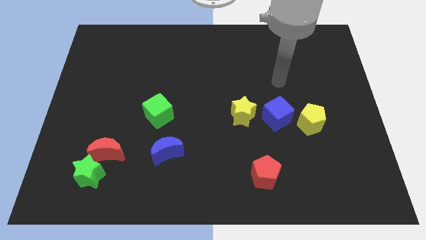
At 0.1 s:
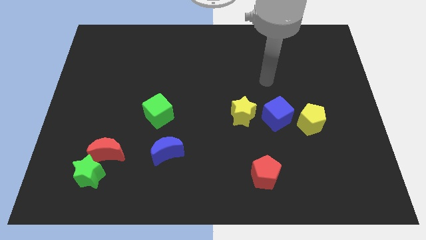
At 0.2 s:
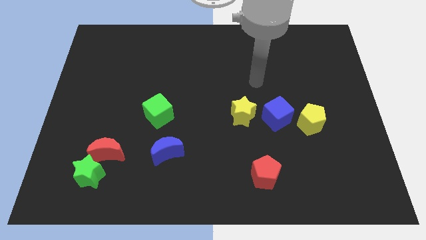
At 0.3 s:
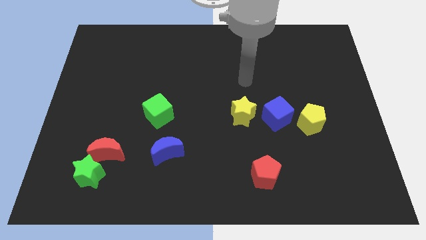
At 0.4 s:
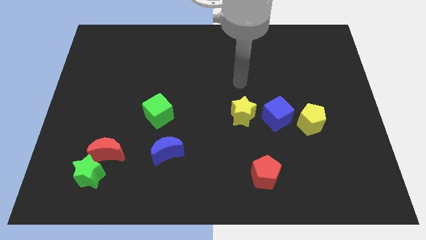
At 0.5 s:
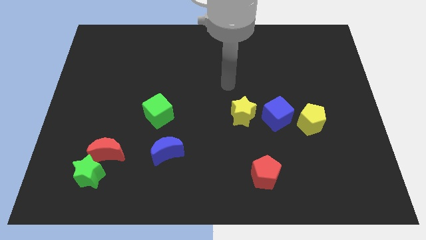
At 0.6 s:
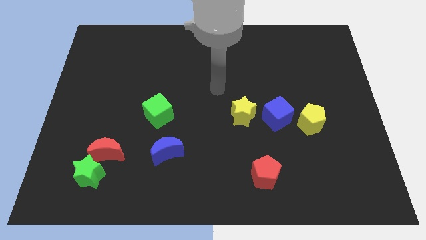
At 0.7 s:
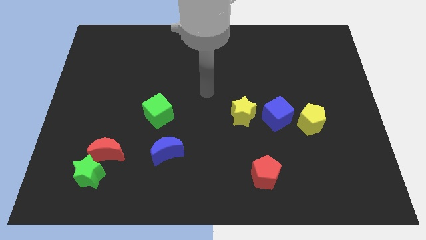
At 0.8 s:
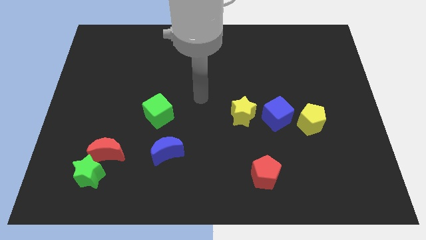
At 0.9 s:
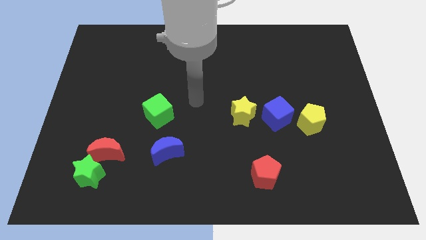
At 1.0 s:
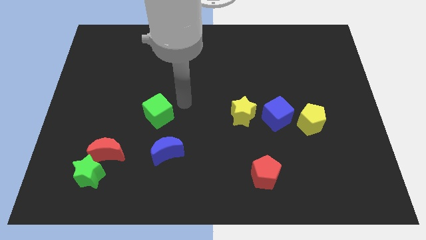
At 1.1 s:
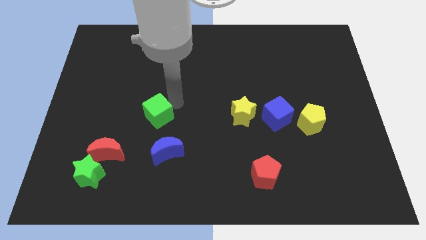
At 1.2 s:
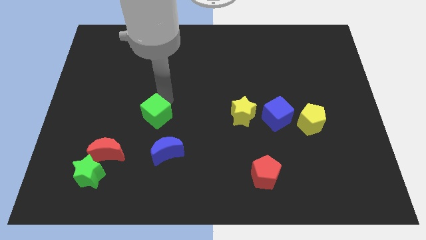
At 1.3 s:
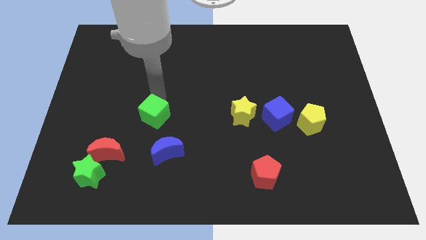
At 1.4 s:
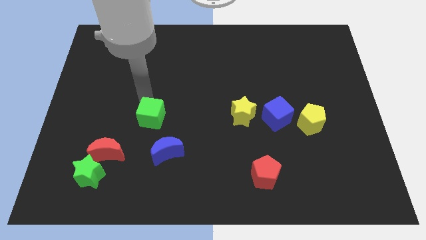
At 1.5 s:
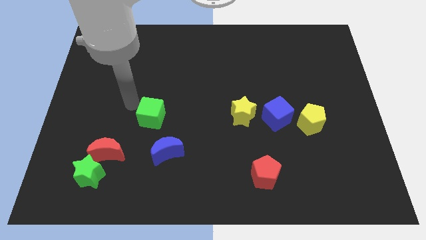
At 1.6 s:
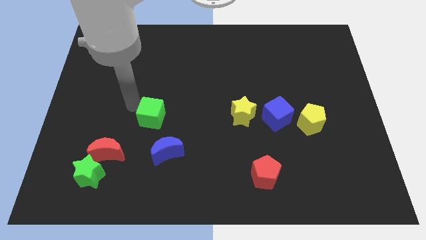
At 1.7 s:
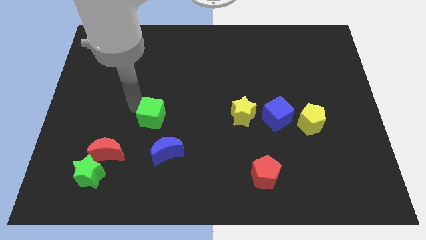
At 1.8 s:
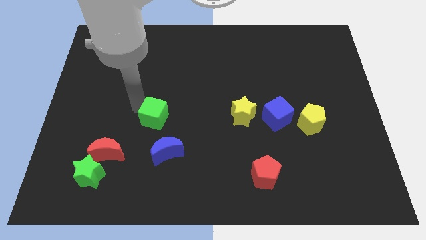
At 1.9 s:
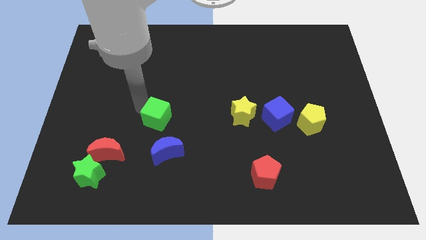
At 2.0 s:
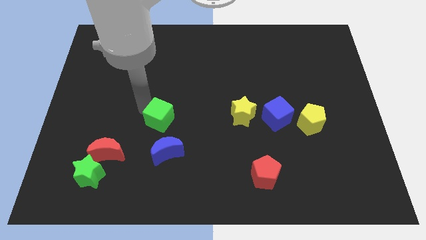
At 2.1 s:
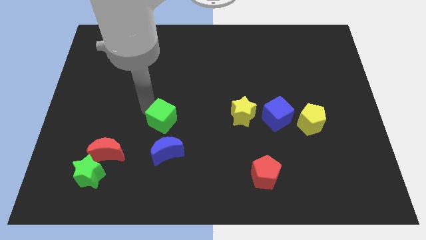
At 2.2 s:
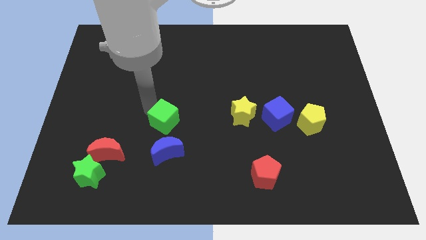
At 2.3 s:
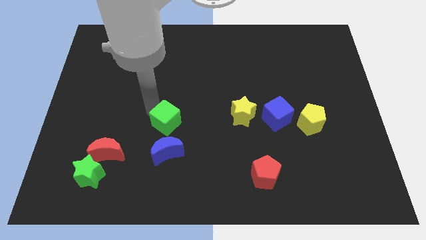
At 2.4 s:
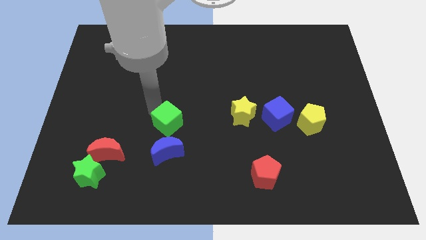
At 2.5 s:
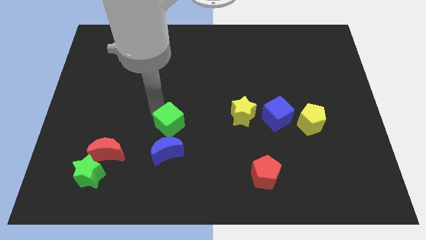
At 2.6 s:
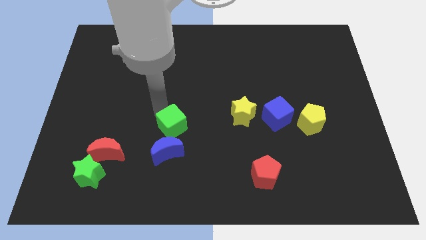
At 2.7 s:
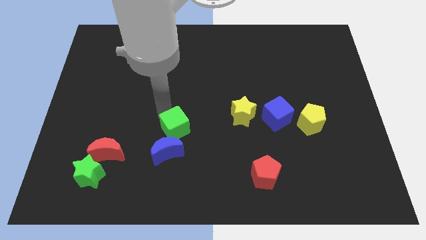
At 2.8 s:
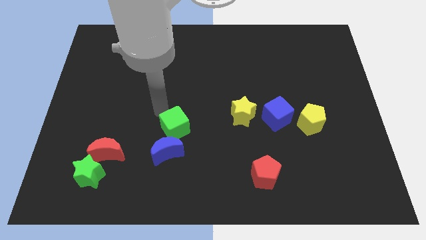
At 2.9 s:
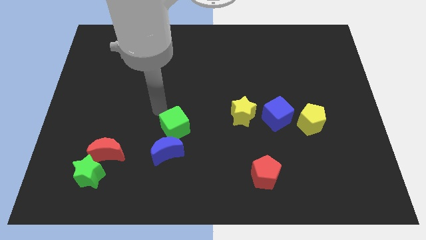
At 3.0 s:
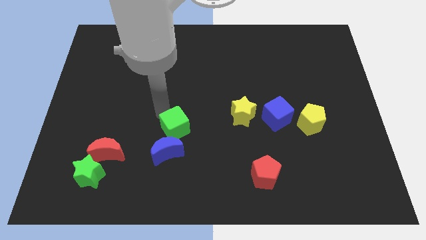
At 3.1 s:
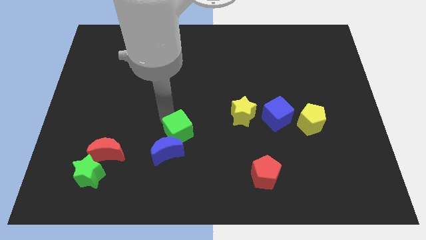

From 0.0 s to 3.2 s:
slightly move the green cube diagonally down and right

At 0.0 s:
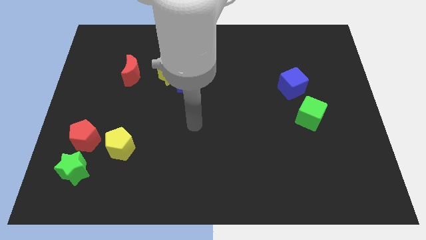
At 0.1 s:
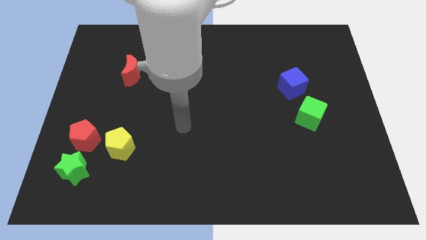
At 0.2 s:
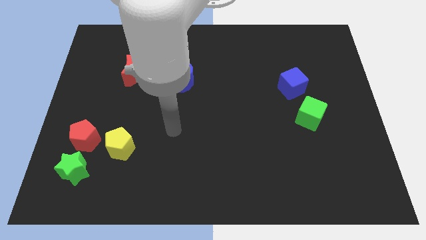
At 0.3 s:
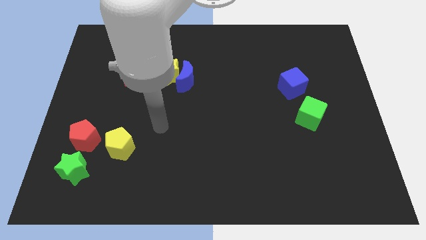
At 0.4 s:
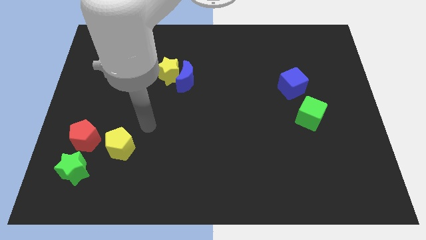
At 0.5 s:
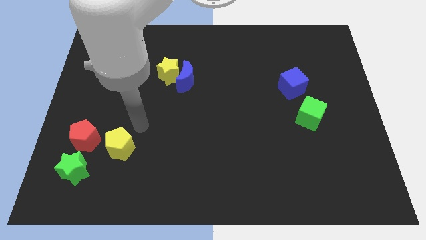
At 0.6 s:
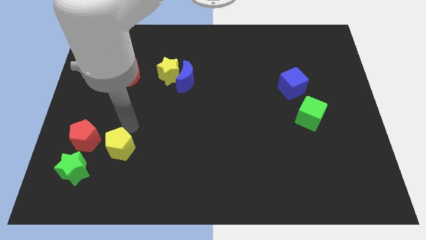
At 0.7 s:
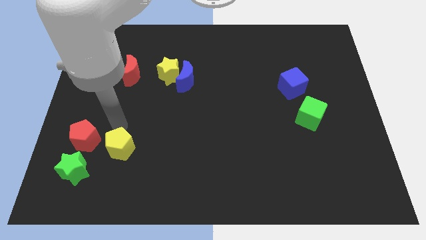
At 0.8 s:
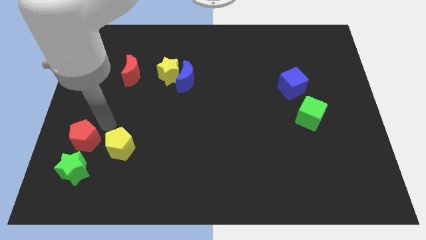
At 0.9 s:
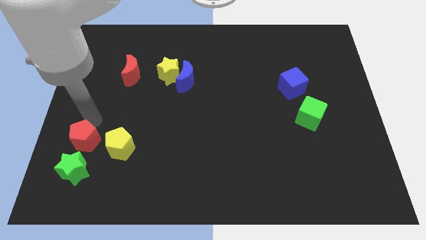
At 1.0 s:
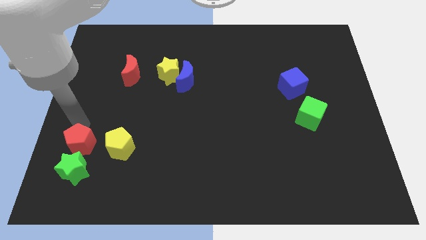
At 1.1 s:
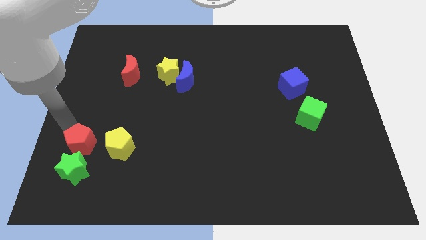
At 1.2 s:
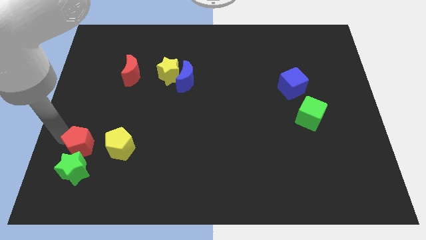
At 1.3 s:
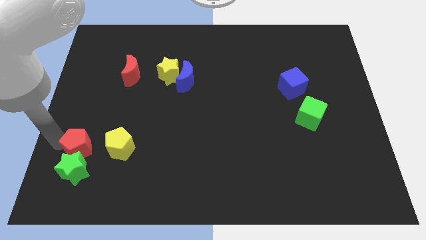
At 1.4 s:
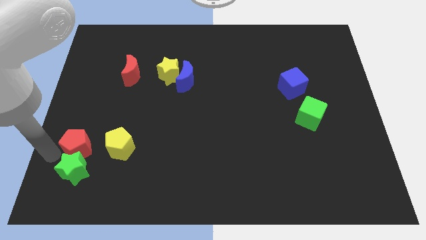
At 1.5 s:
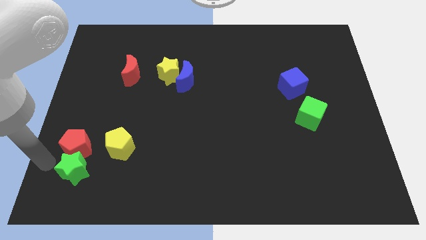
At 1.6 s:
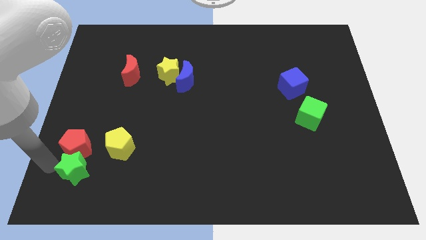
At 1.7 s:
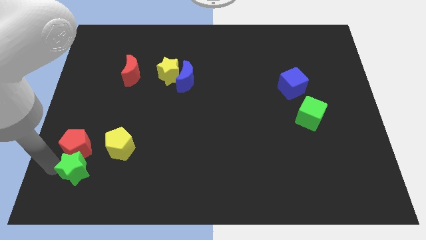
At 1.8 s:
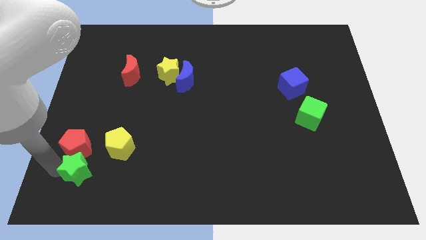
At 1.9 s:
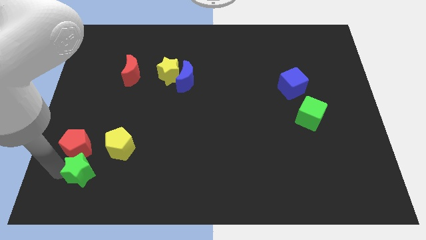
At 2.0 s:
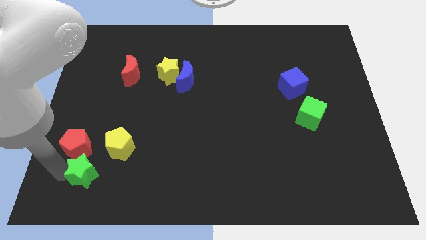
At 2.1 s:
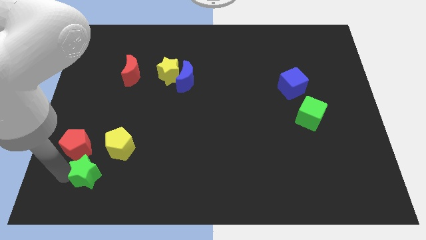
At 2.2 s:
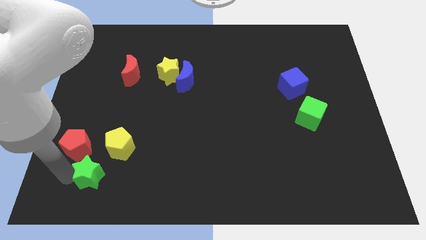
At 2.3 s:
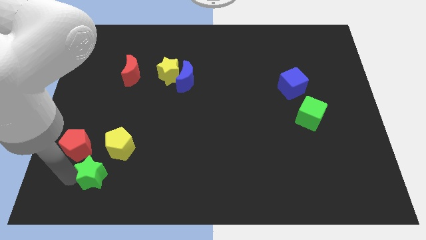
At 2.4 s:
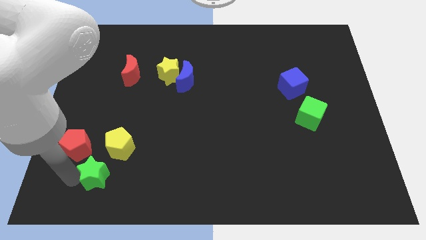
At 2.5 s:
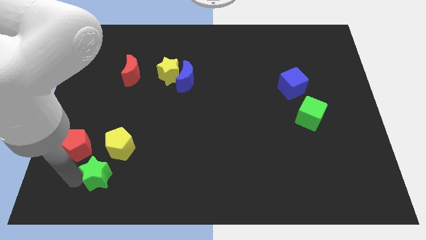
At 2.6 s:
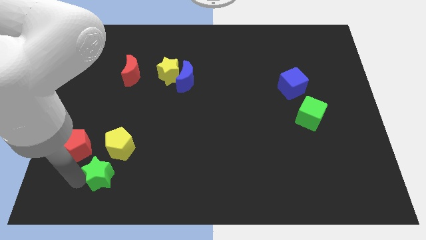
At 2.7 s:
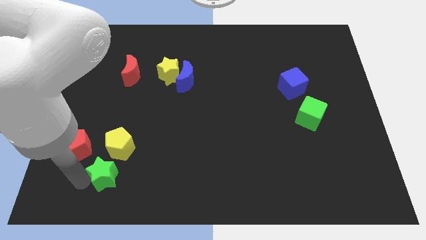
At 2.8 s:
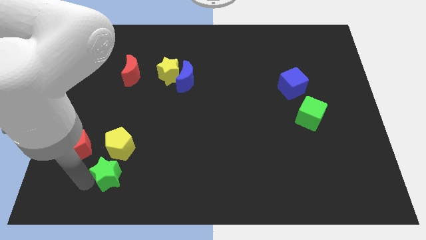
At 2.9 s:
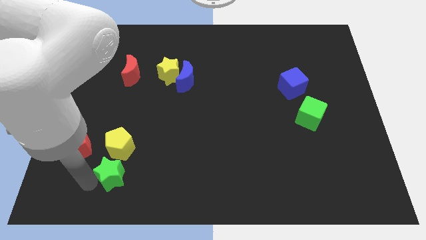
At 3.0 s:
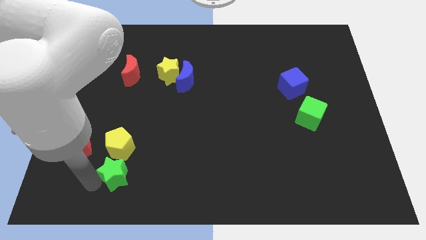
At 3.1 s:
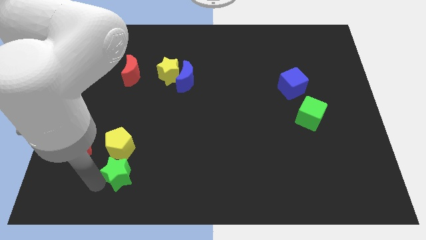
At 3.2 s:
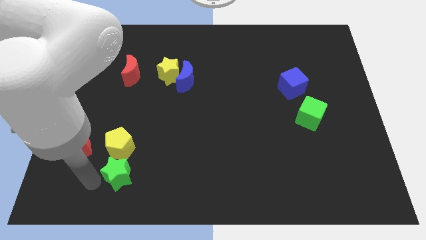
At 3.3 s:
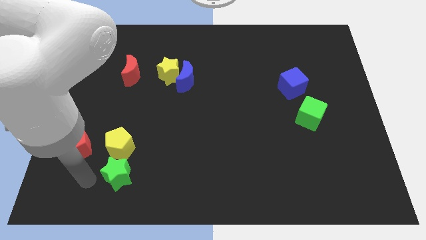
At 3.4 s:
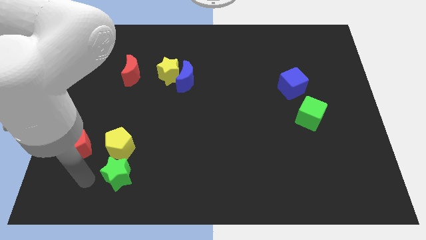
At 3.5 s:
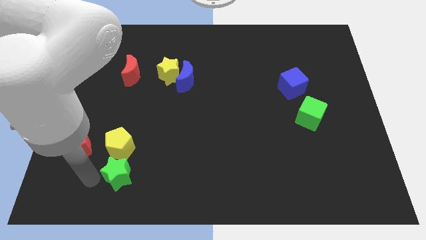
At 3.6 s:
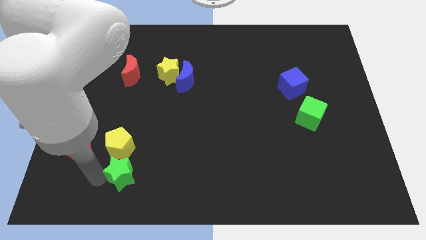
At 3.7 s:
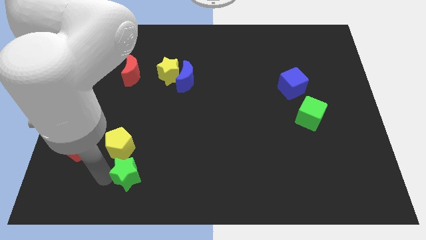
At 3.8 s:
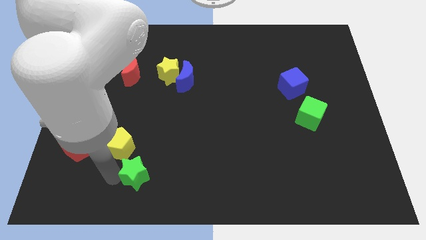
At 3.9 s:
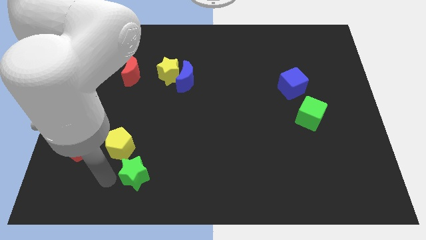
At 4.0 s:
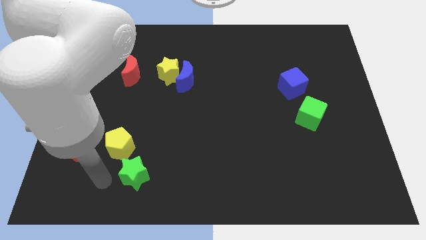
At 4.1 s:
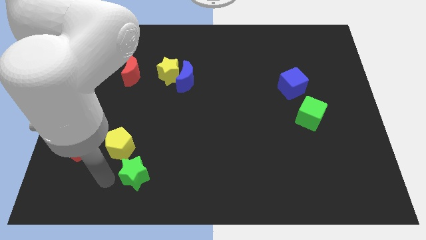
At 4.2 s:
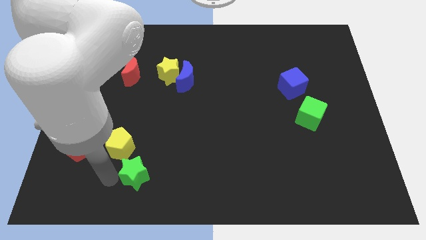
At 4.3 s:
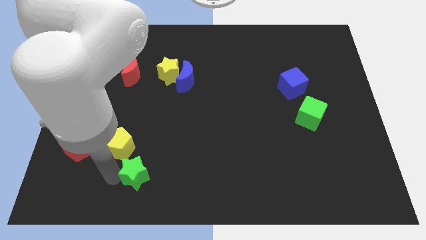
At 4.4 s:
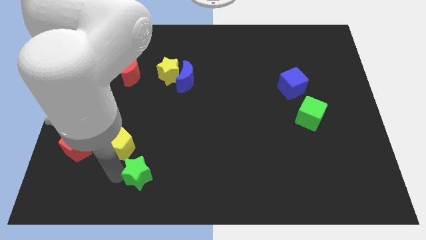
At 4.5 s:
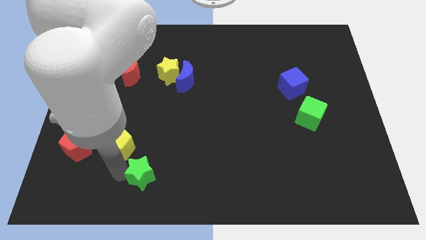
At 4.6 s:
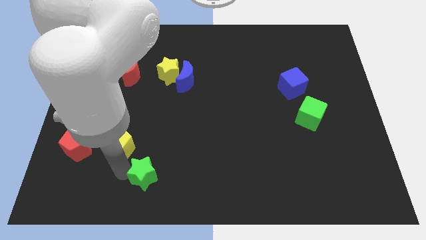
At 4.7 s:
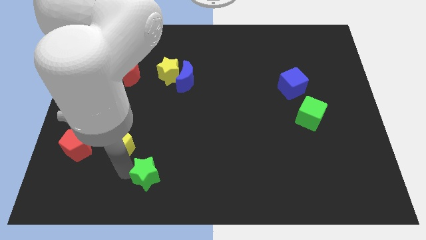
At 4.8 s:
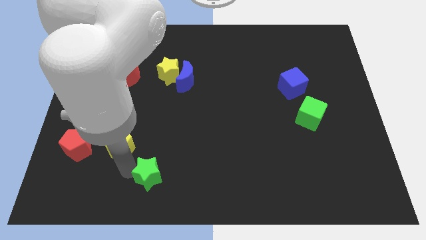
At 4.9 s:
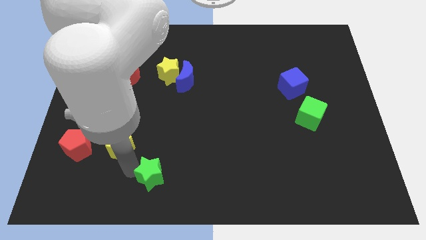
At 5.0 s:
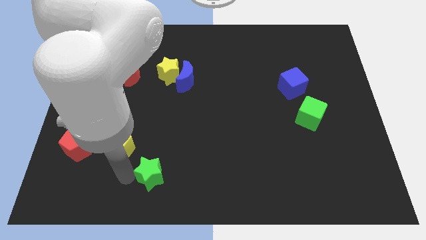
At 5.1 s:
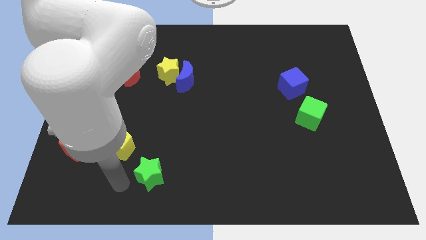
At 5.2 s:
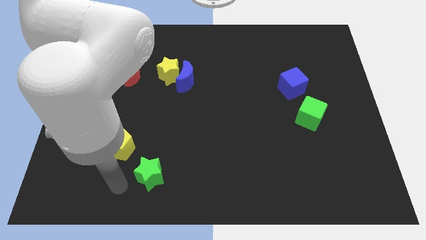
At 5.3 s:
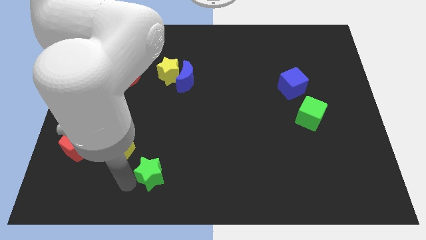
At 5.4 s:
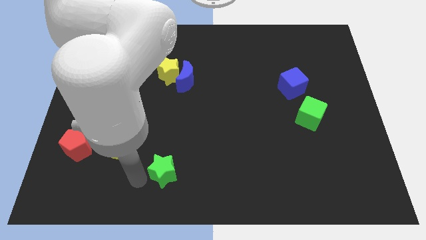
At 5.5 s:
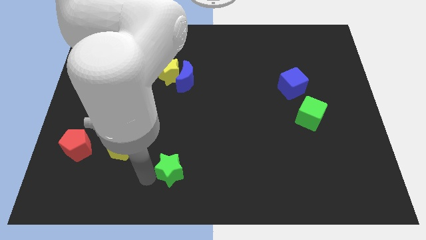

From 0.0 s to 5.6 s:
push the green star to the right
